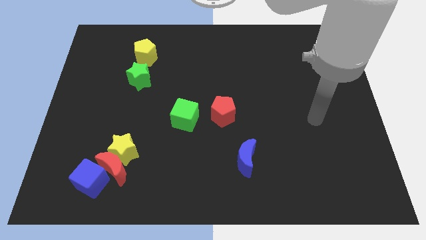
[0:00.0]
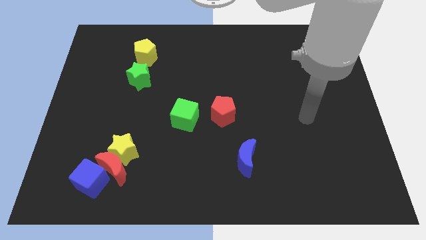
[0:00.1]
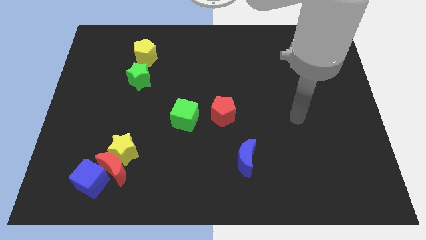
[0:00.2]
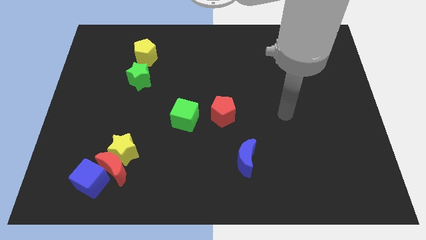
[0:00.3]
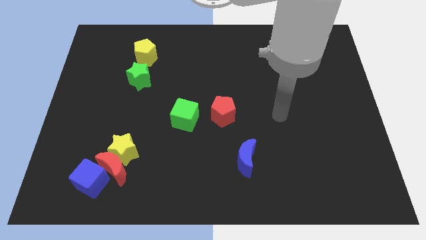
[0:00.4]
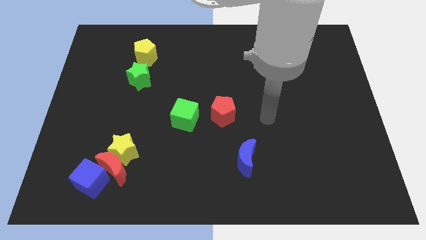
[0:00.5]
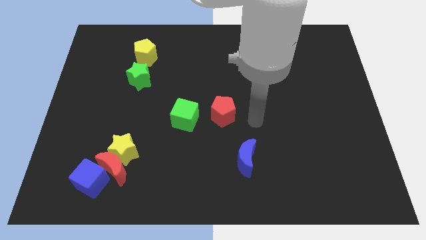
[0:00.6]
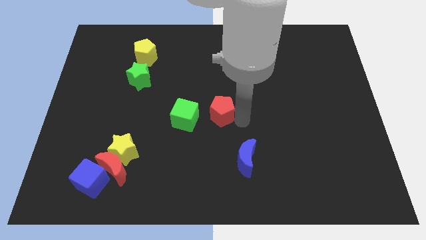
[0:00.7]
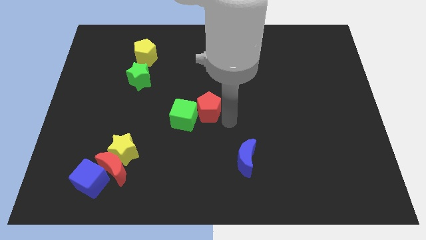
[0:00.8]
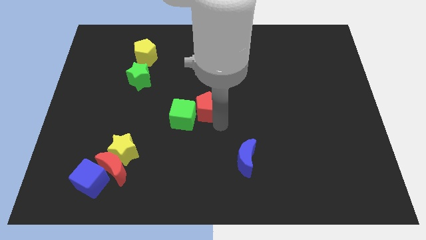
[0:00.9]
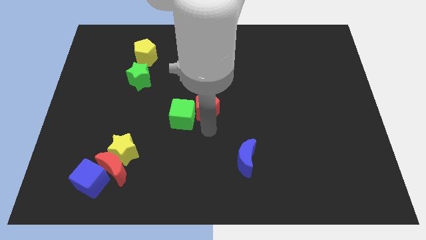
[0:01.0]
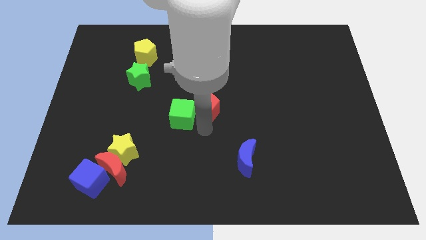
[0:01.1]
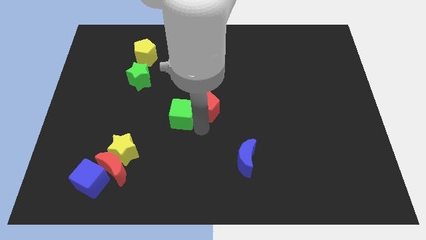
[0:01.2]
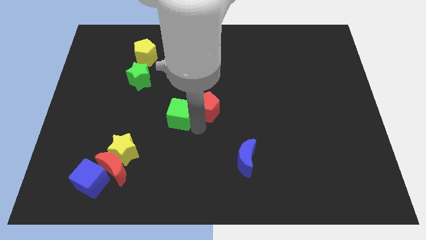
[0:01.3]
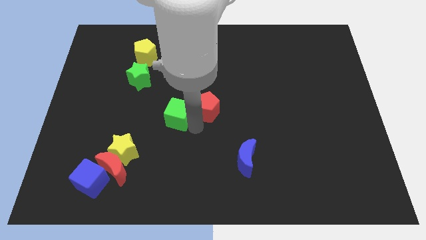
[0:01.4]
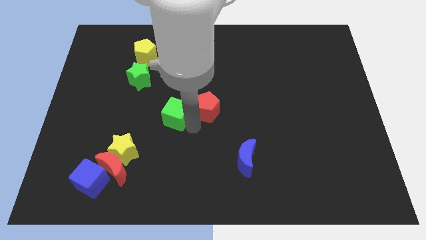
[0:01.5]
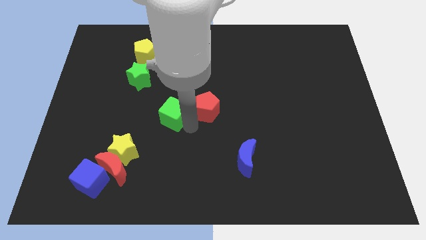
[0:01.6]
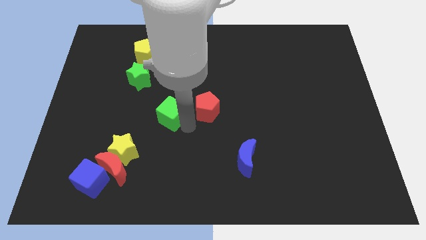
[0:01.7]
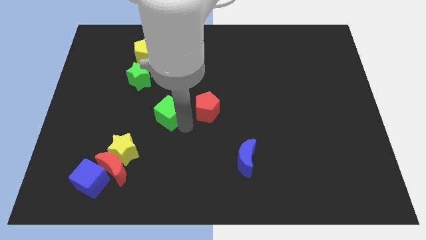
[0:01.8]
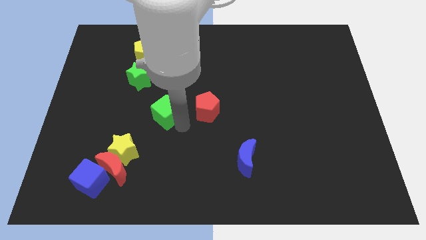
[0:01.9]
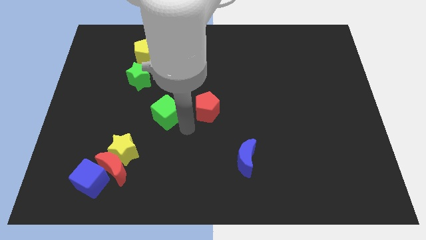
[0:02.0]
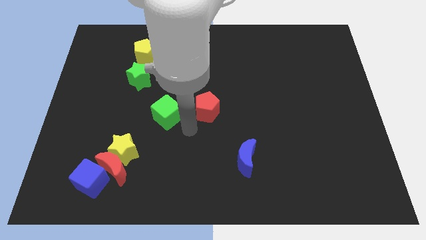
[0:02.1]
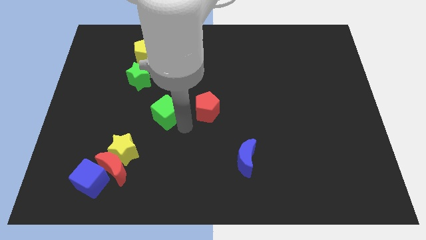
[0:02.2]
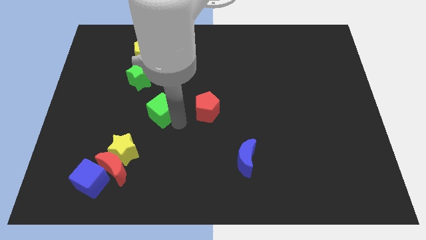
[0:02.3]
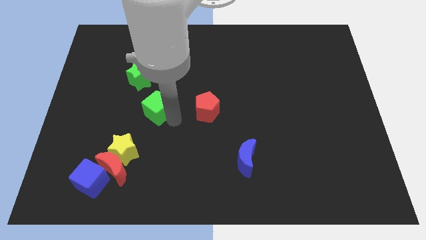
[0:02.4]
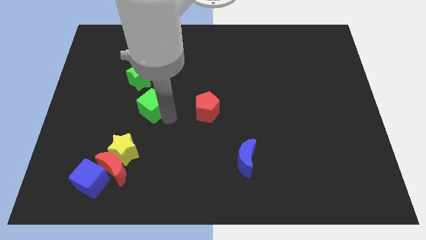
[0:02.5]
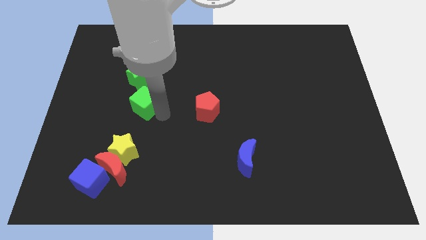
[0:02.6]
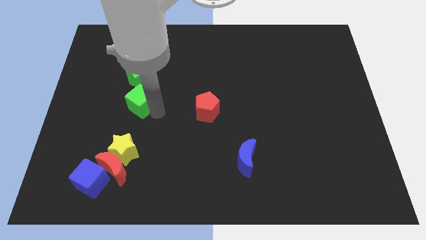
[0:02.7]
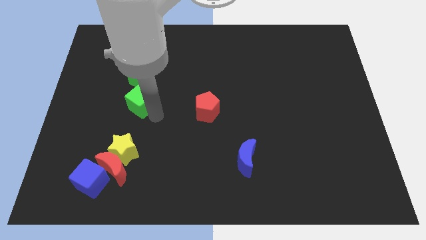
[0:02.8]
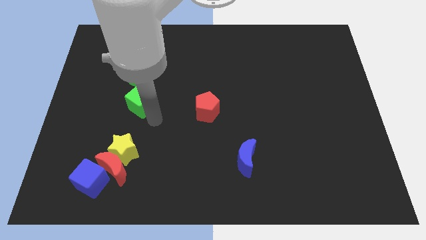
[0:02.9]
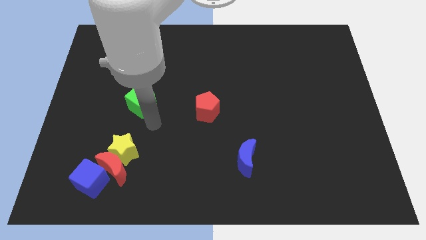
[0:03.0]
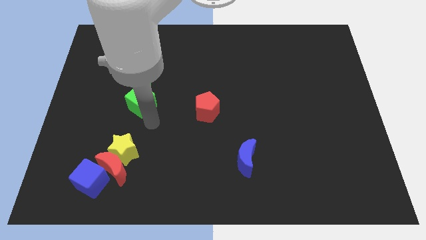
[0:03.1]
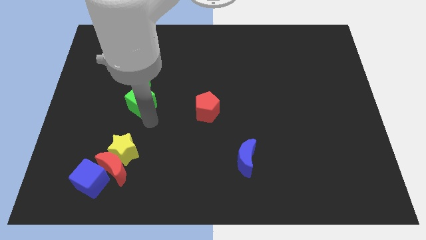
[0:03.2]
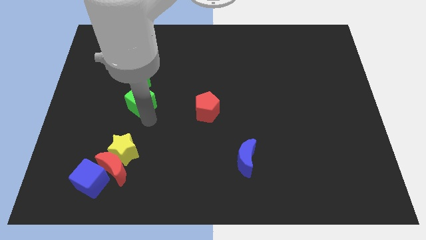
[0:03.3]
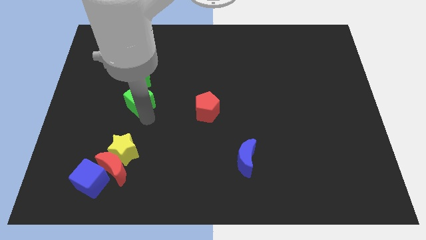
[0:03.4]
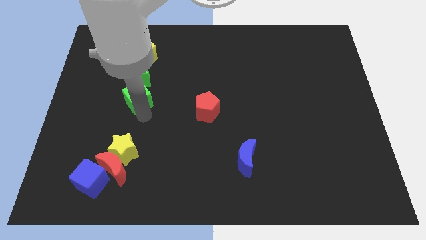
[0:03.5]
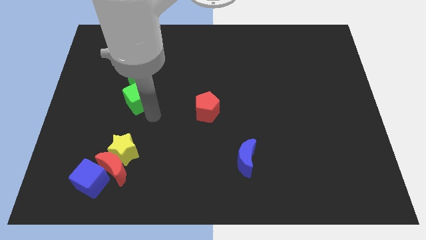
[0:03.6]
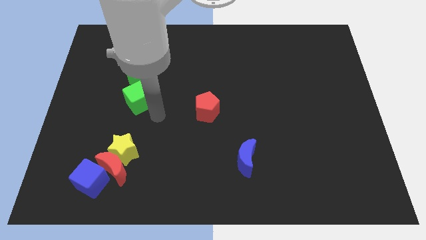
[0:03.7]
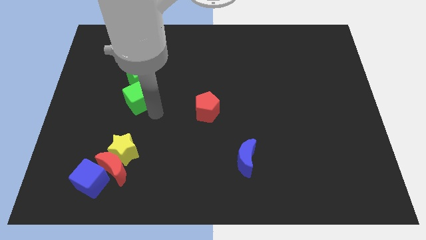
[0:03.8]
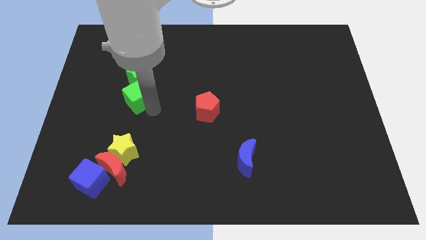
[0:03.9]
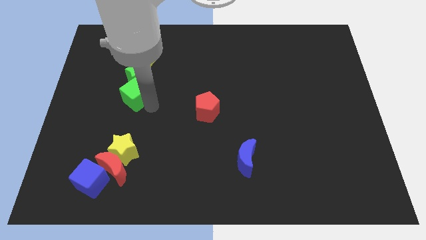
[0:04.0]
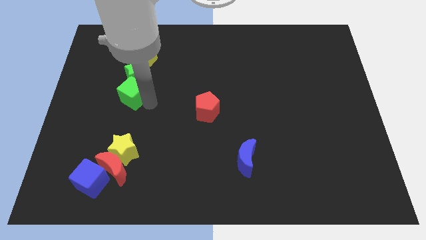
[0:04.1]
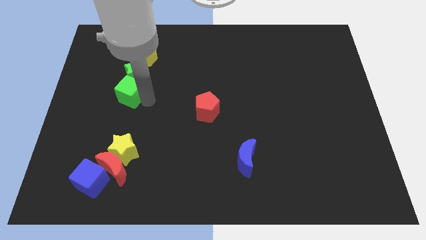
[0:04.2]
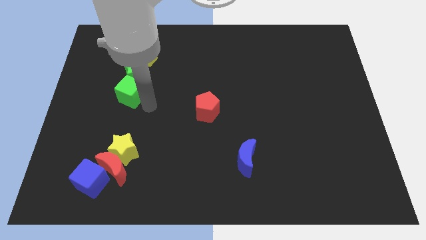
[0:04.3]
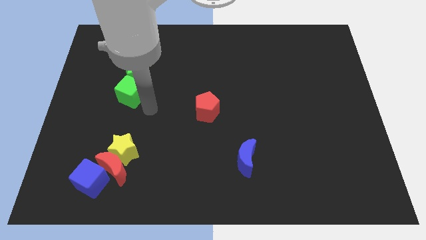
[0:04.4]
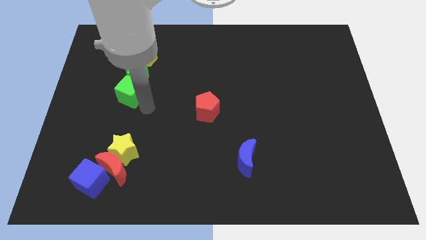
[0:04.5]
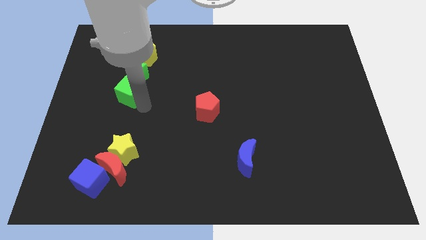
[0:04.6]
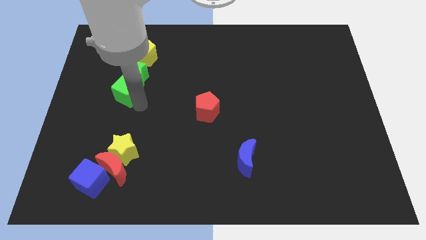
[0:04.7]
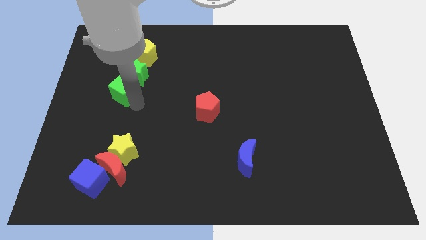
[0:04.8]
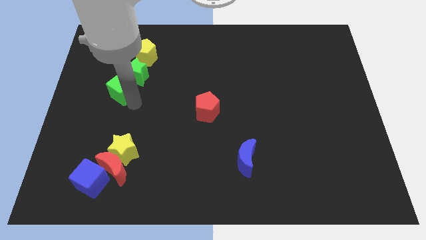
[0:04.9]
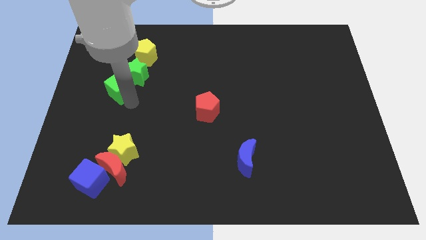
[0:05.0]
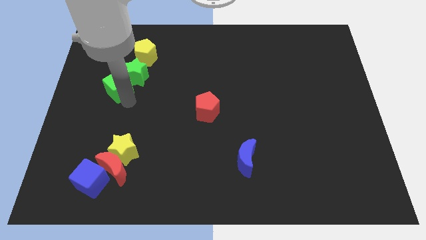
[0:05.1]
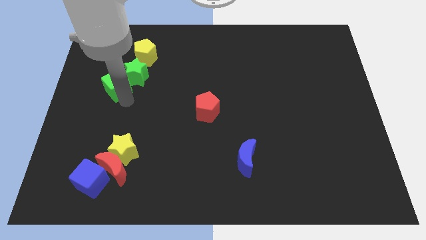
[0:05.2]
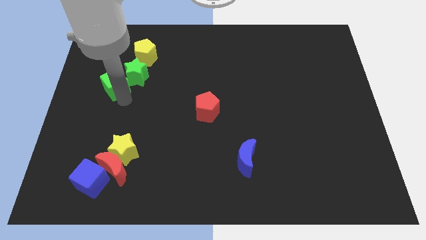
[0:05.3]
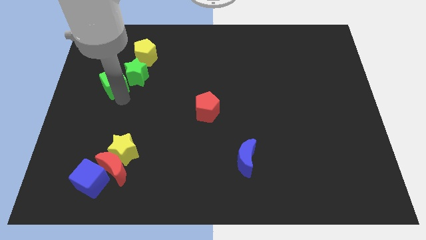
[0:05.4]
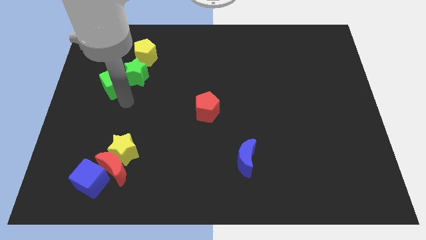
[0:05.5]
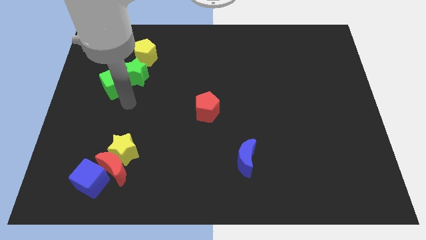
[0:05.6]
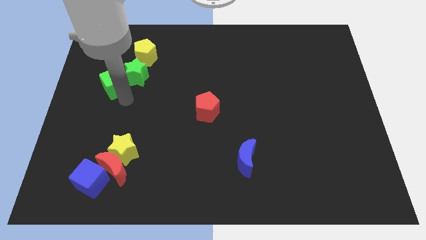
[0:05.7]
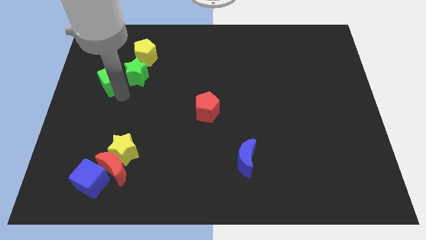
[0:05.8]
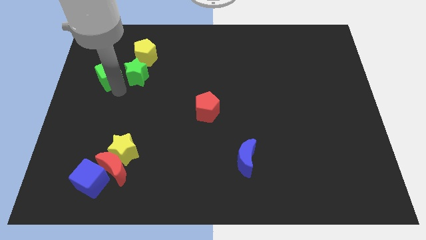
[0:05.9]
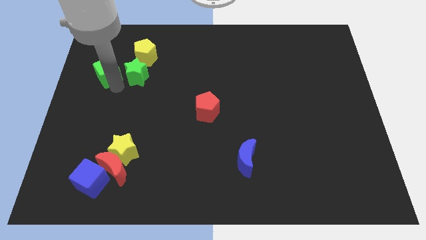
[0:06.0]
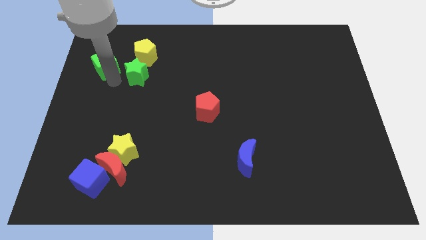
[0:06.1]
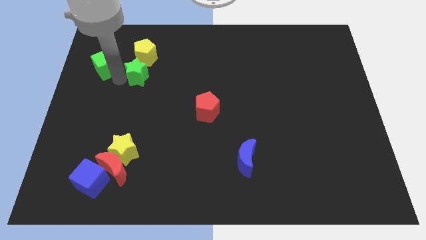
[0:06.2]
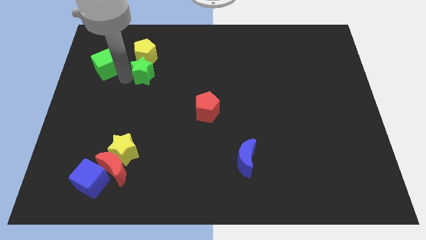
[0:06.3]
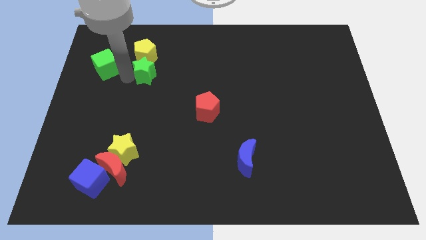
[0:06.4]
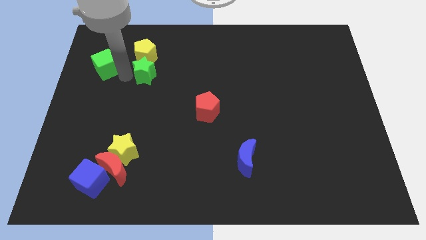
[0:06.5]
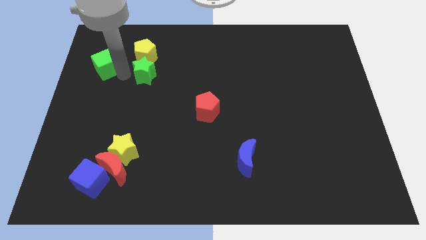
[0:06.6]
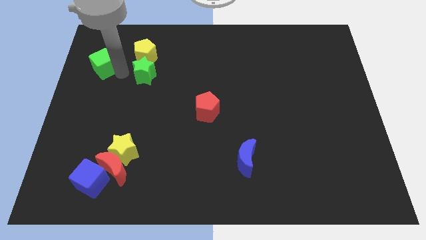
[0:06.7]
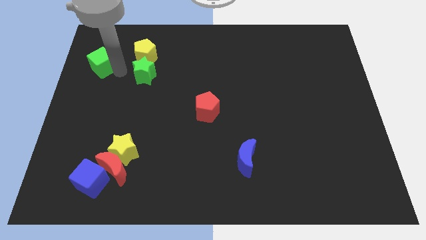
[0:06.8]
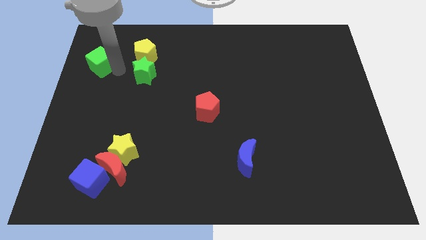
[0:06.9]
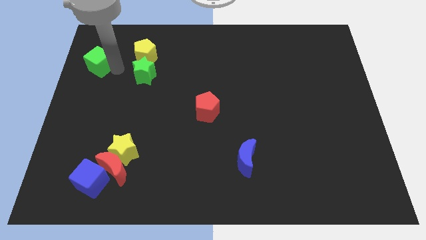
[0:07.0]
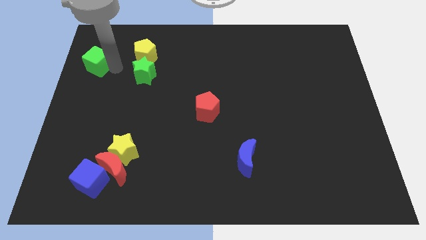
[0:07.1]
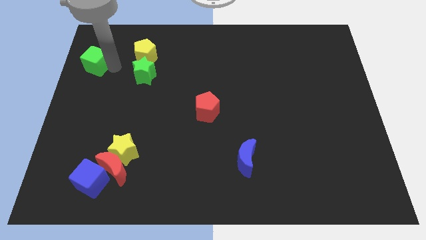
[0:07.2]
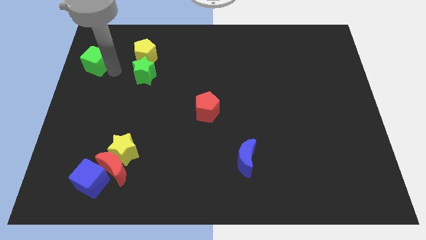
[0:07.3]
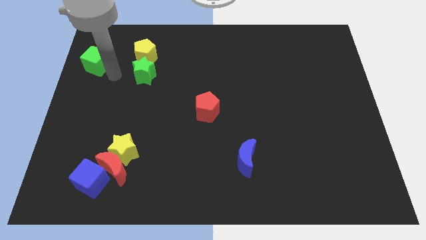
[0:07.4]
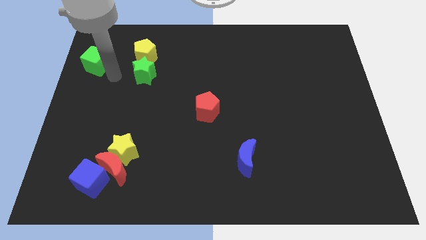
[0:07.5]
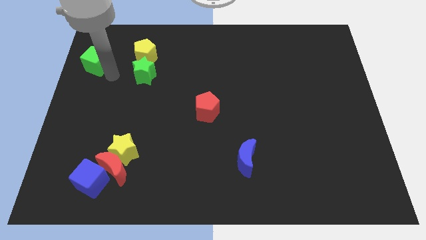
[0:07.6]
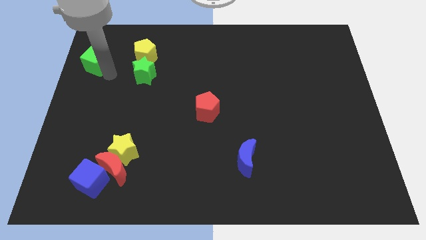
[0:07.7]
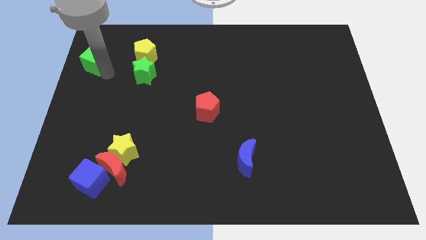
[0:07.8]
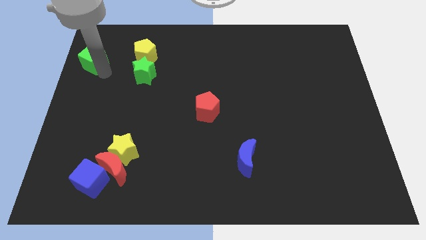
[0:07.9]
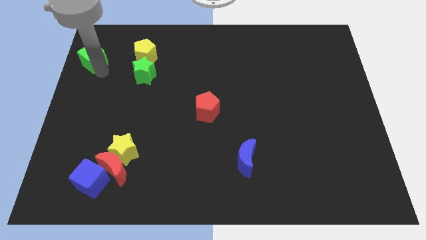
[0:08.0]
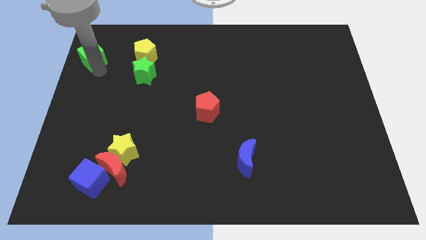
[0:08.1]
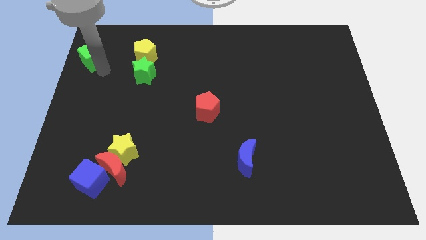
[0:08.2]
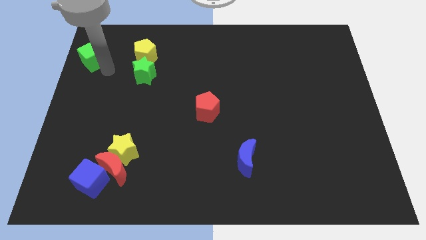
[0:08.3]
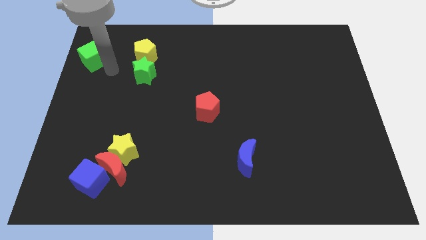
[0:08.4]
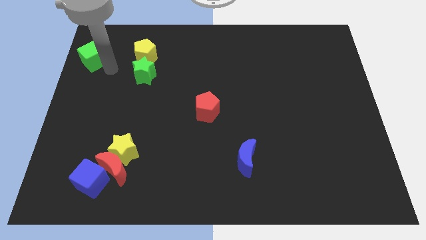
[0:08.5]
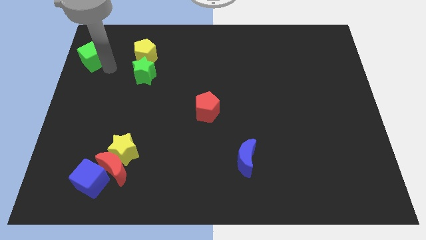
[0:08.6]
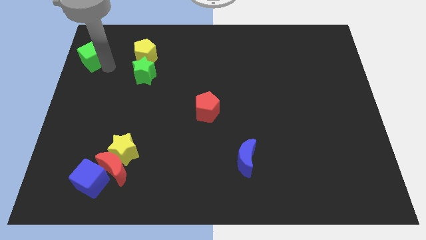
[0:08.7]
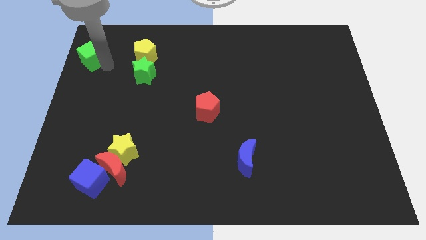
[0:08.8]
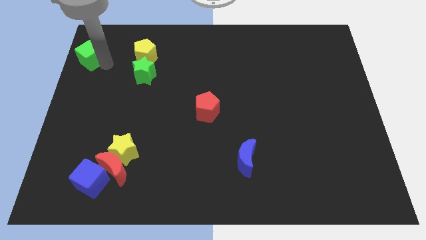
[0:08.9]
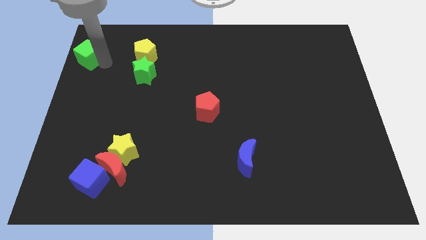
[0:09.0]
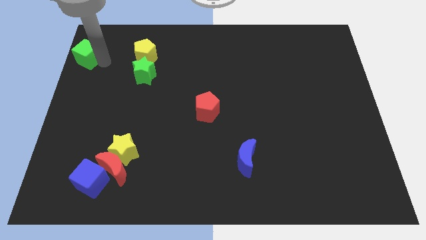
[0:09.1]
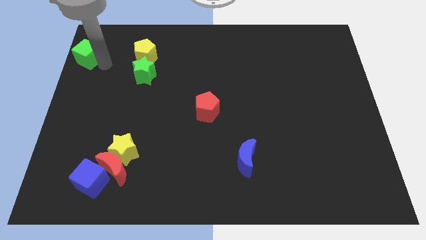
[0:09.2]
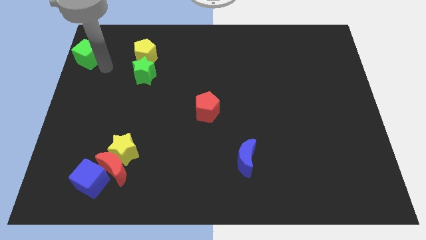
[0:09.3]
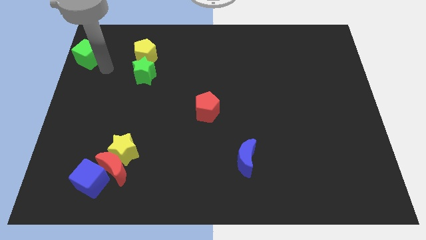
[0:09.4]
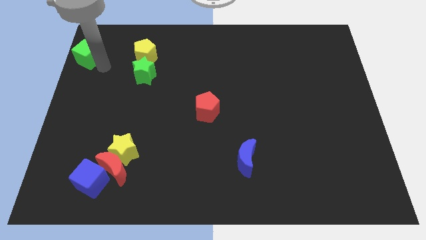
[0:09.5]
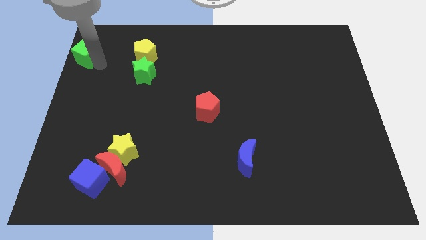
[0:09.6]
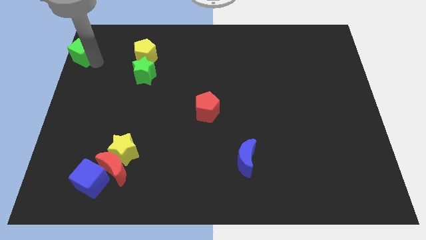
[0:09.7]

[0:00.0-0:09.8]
push the green cube to the upper left corner
